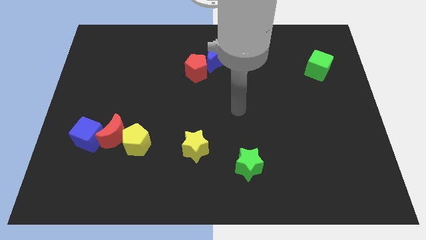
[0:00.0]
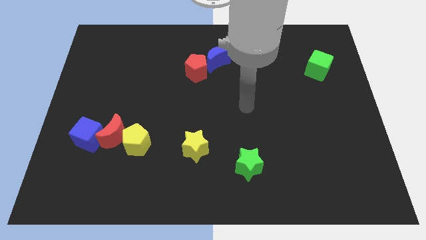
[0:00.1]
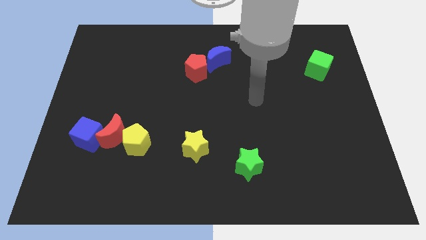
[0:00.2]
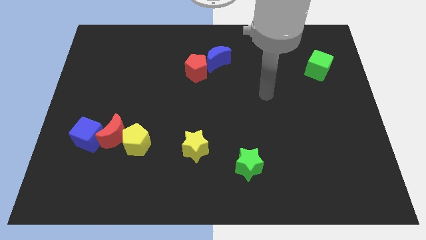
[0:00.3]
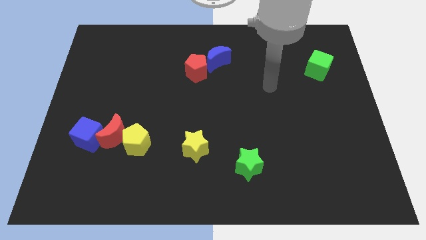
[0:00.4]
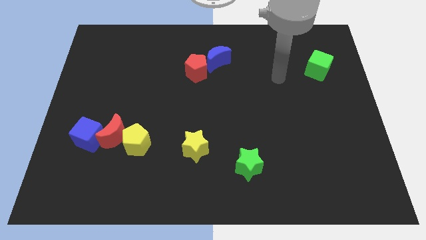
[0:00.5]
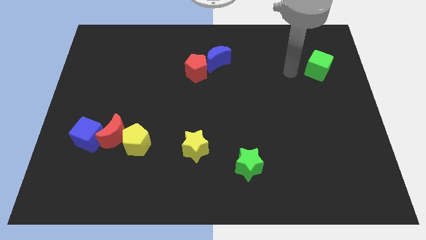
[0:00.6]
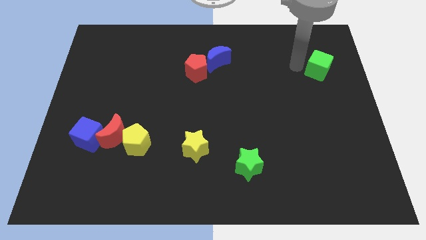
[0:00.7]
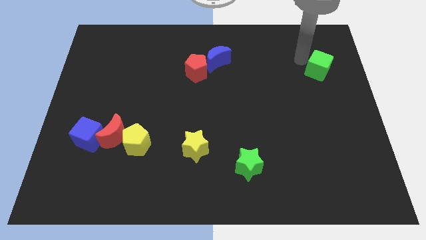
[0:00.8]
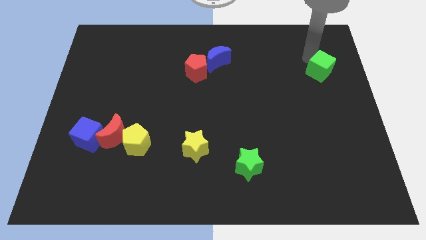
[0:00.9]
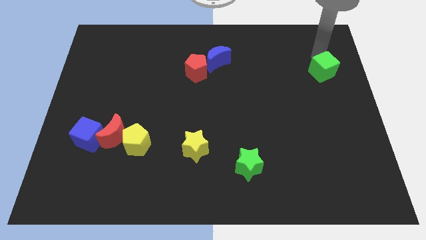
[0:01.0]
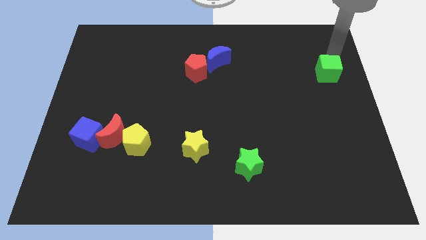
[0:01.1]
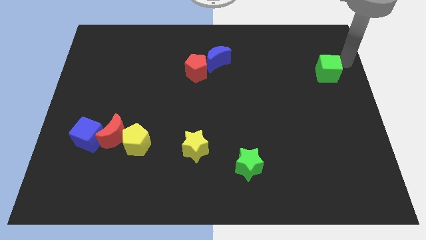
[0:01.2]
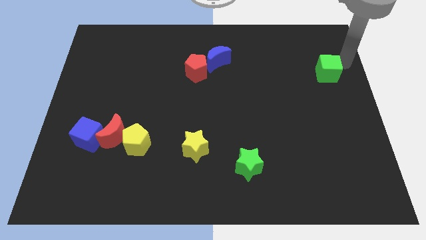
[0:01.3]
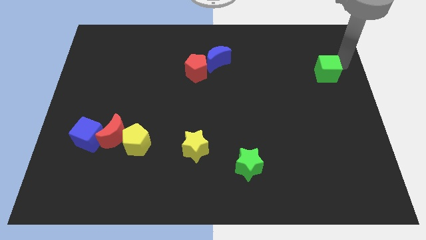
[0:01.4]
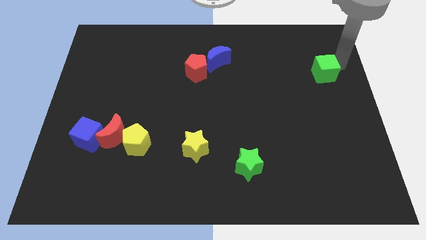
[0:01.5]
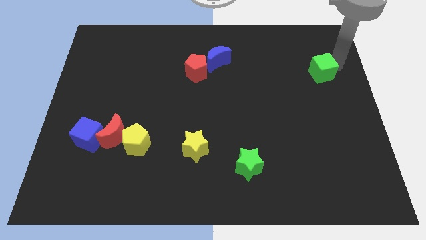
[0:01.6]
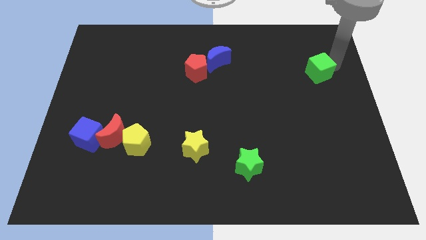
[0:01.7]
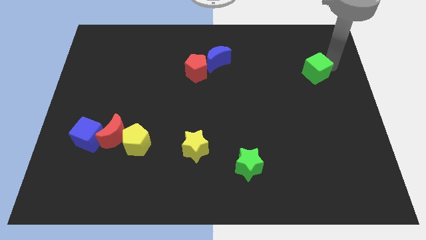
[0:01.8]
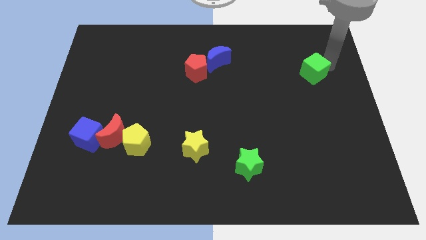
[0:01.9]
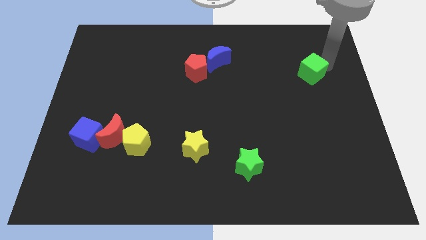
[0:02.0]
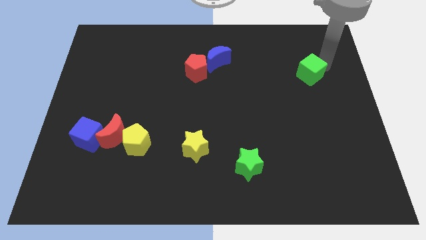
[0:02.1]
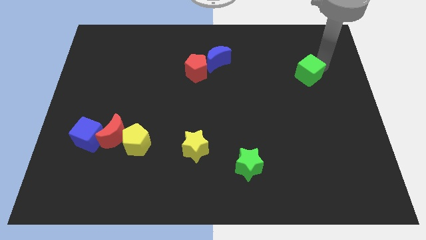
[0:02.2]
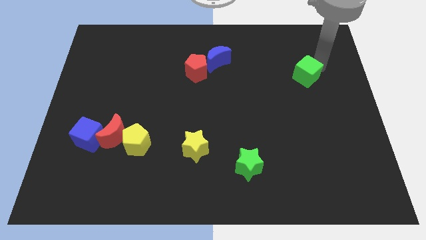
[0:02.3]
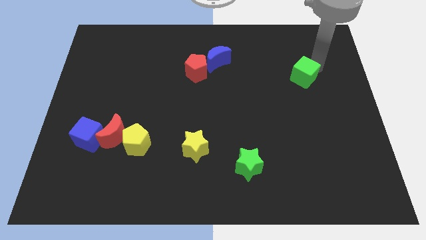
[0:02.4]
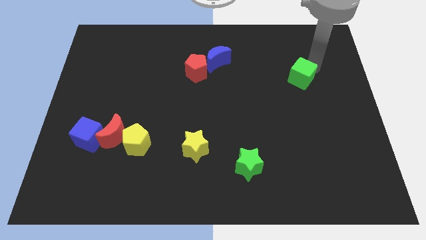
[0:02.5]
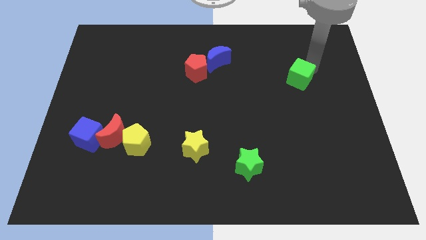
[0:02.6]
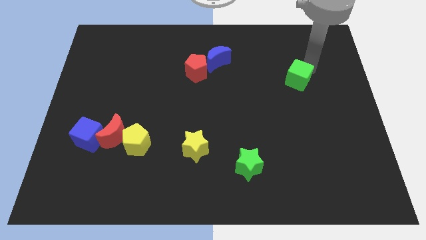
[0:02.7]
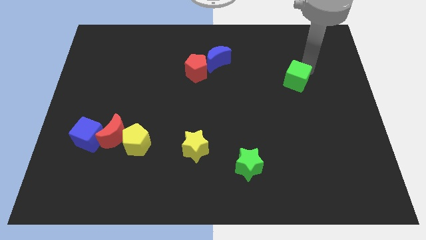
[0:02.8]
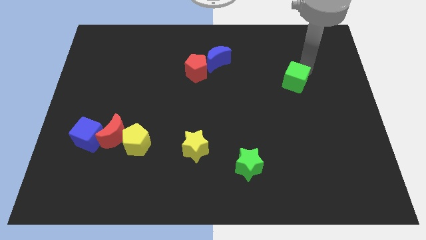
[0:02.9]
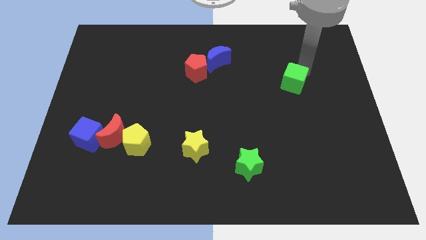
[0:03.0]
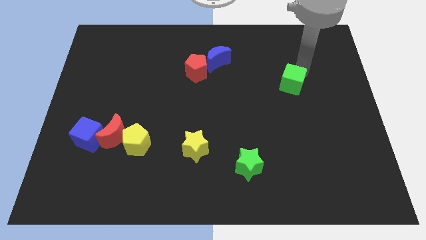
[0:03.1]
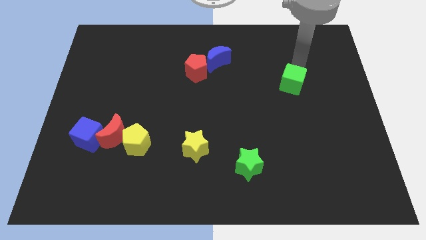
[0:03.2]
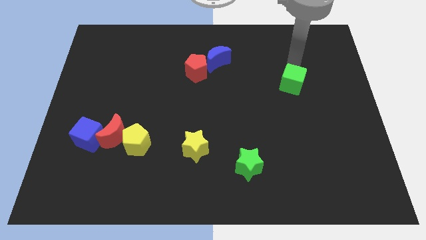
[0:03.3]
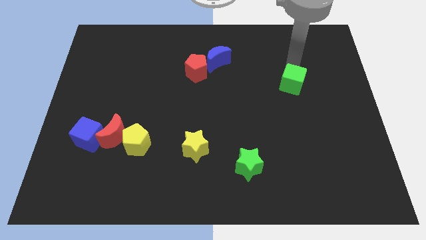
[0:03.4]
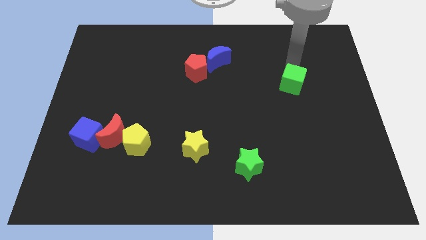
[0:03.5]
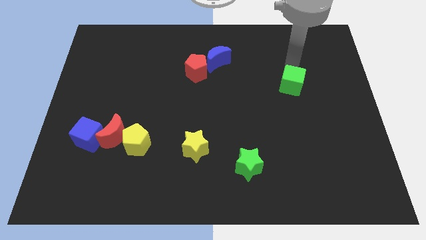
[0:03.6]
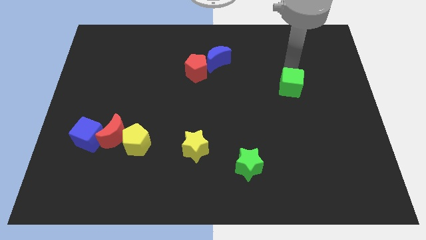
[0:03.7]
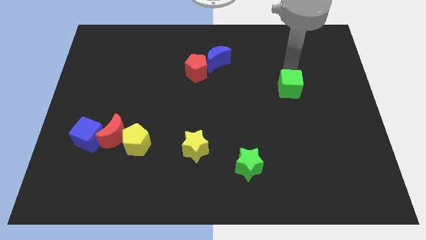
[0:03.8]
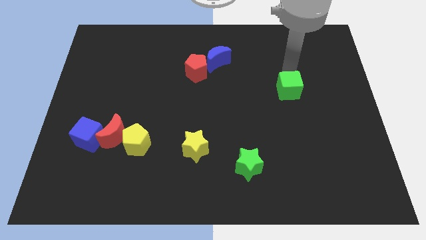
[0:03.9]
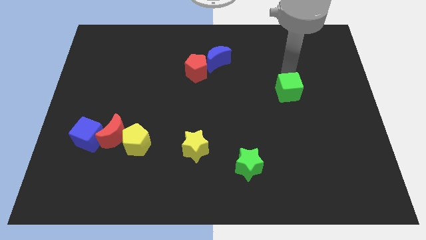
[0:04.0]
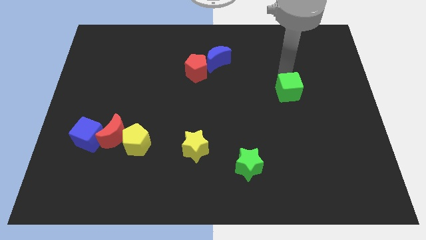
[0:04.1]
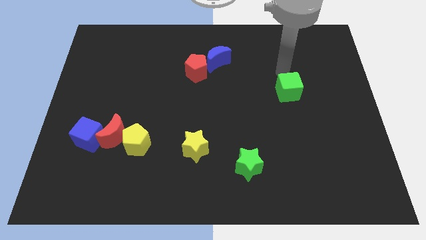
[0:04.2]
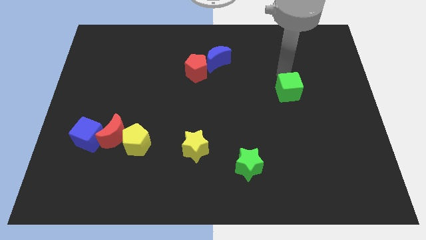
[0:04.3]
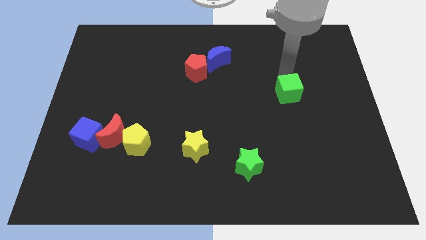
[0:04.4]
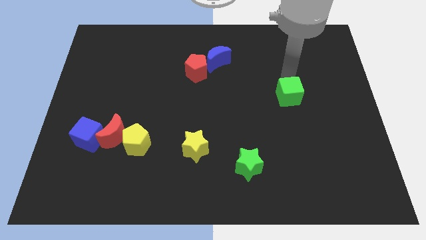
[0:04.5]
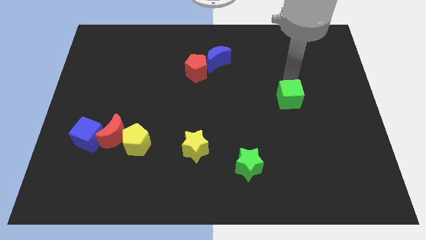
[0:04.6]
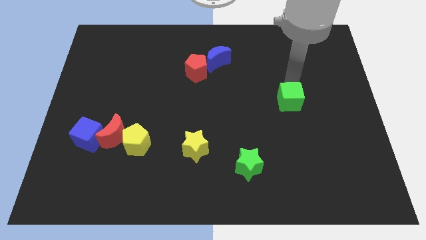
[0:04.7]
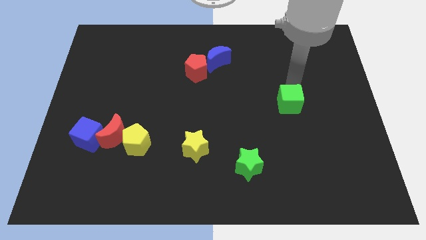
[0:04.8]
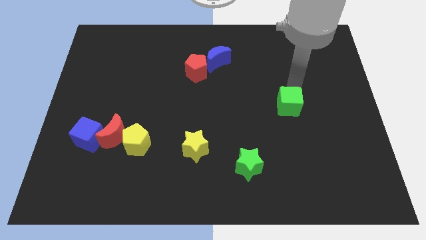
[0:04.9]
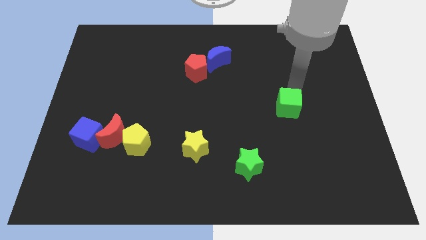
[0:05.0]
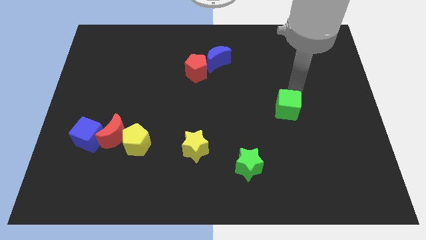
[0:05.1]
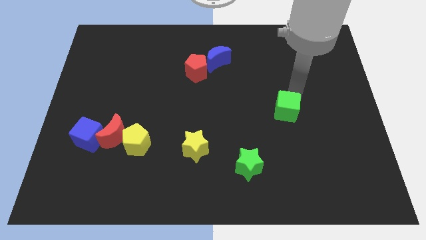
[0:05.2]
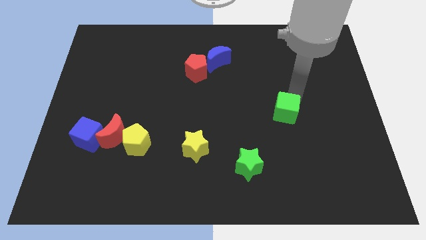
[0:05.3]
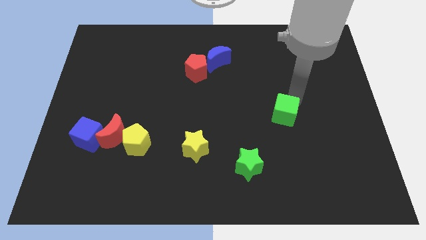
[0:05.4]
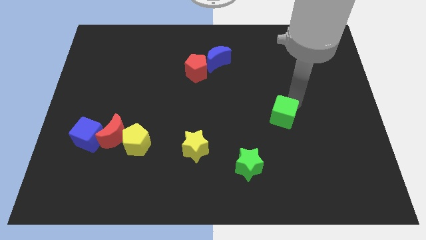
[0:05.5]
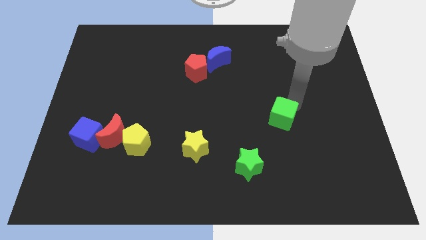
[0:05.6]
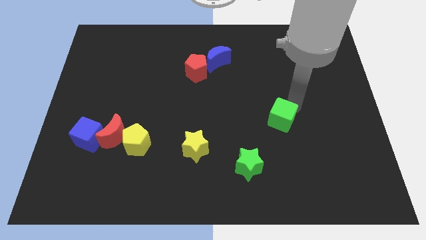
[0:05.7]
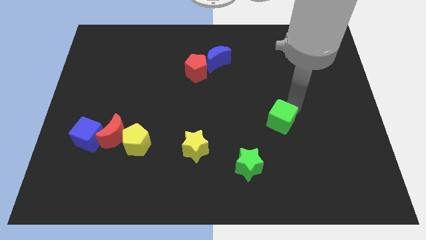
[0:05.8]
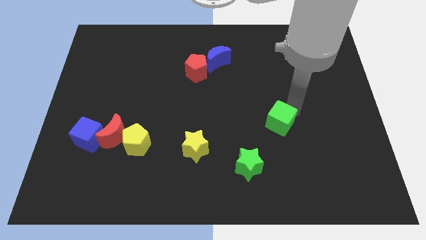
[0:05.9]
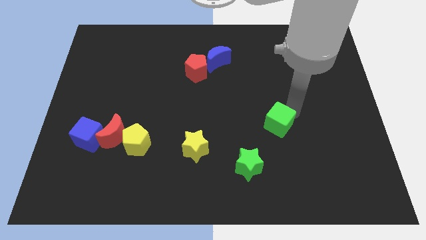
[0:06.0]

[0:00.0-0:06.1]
slide the green cube down and to the left

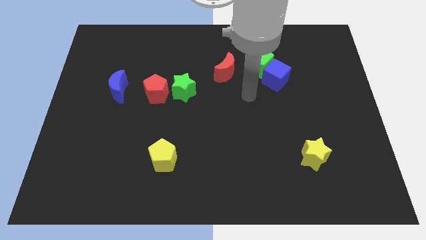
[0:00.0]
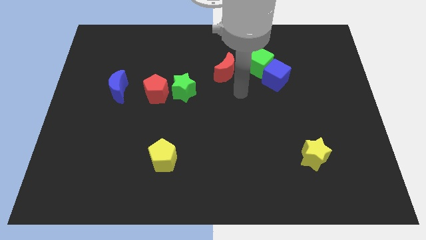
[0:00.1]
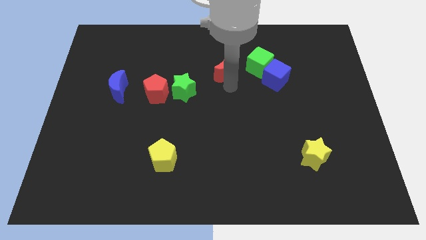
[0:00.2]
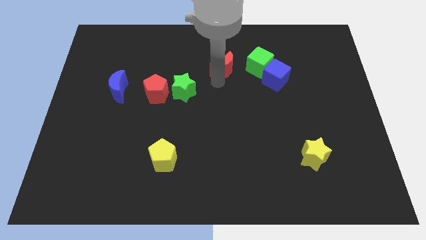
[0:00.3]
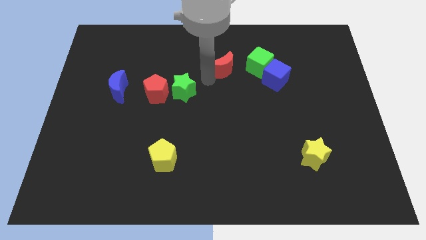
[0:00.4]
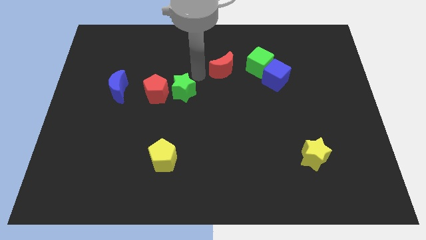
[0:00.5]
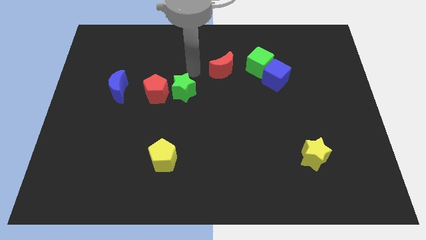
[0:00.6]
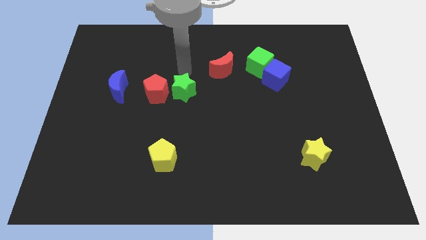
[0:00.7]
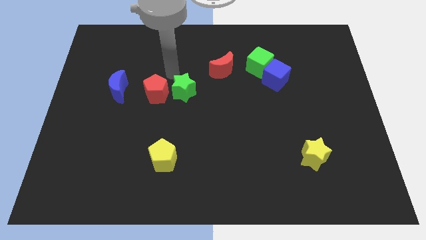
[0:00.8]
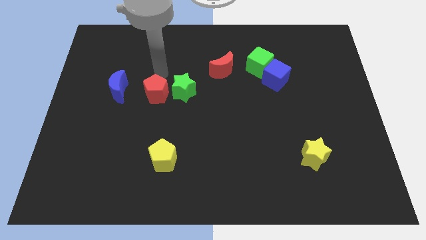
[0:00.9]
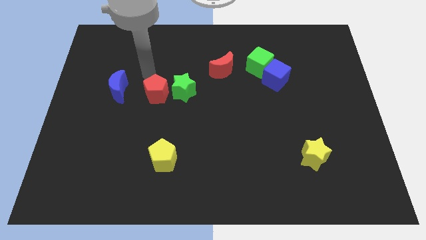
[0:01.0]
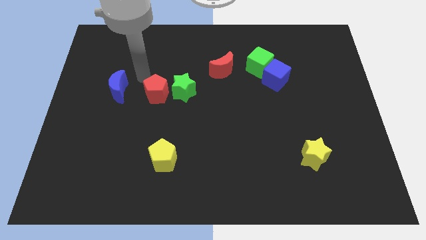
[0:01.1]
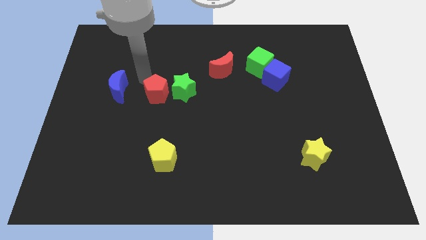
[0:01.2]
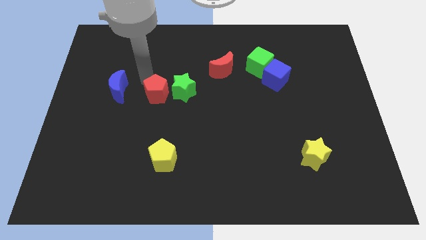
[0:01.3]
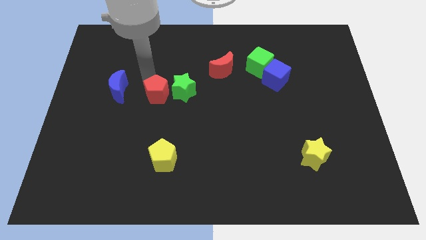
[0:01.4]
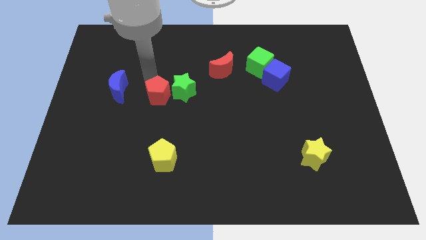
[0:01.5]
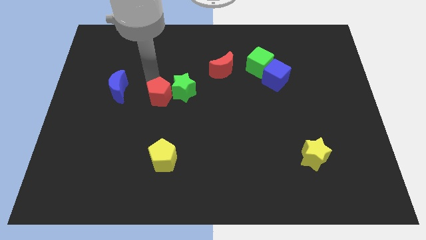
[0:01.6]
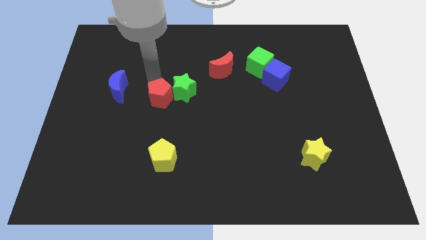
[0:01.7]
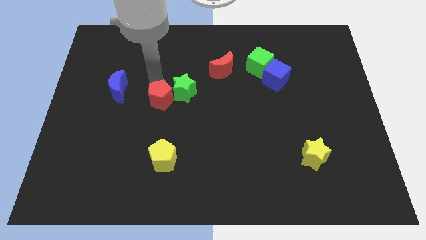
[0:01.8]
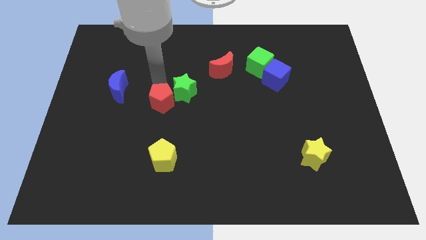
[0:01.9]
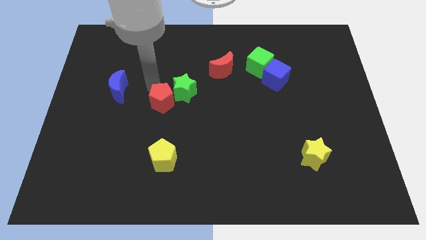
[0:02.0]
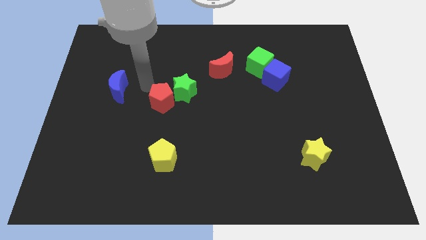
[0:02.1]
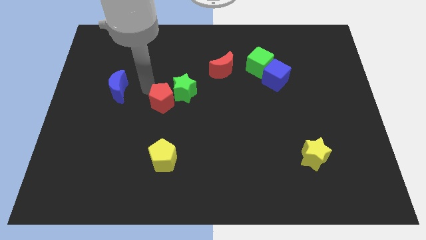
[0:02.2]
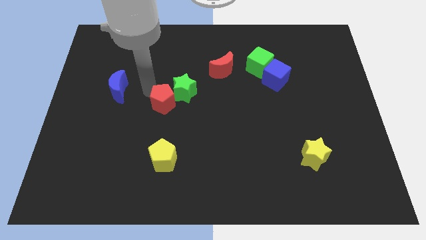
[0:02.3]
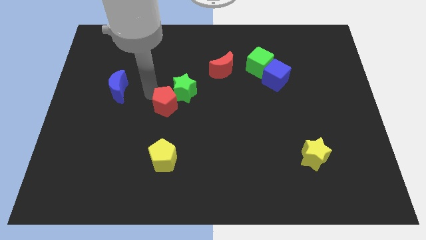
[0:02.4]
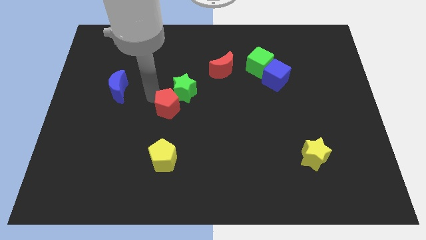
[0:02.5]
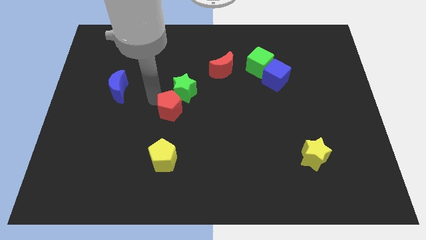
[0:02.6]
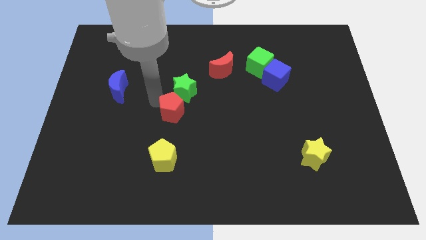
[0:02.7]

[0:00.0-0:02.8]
slightly push the red pentagon down and right
